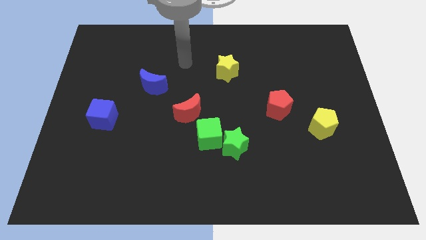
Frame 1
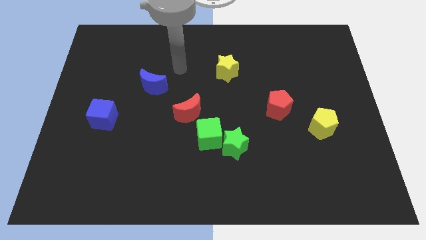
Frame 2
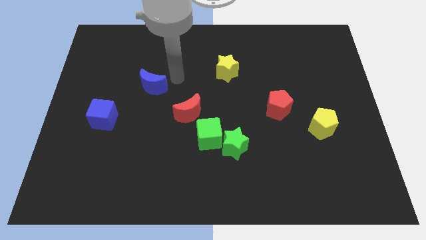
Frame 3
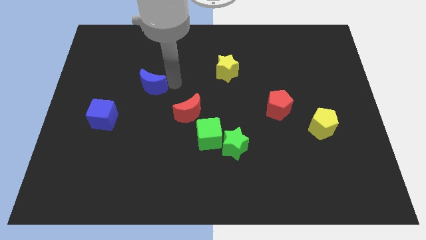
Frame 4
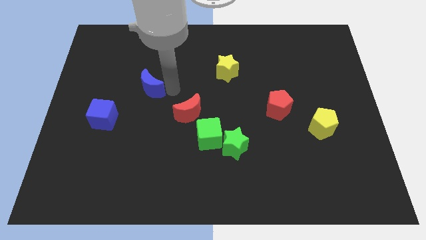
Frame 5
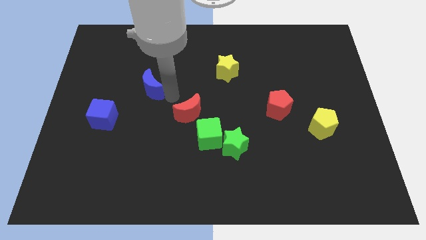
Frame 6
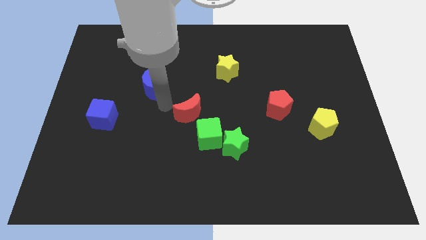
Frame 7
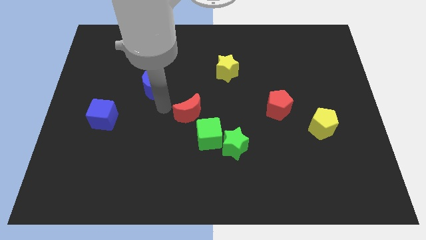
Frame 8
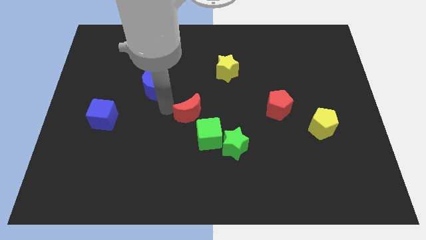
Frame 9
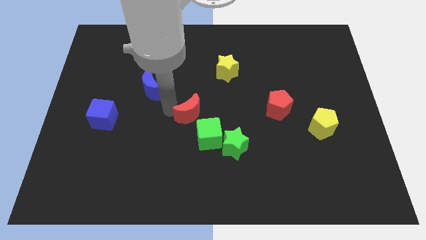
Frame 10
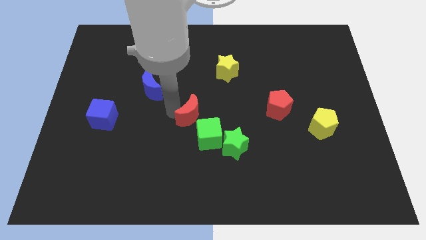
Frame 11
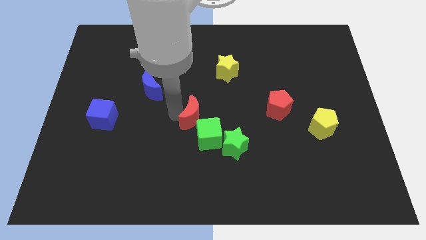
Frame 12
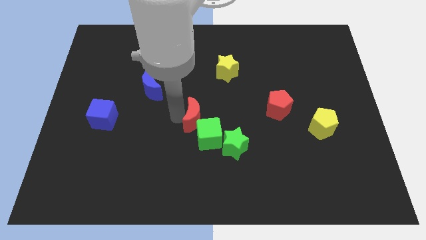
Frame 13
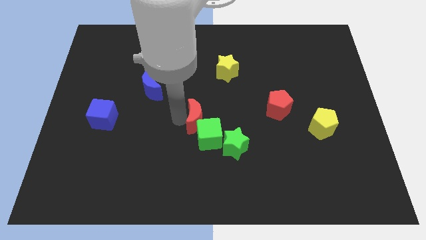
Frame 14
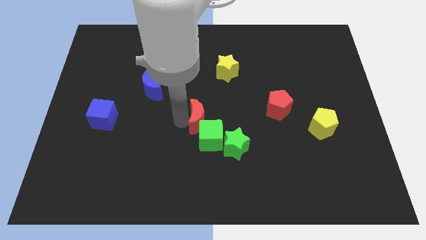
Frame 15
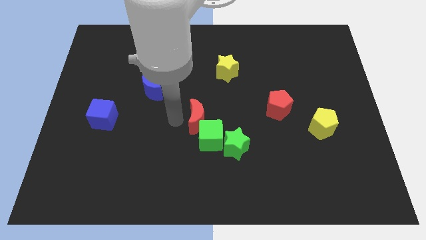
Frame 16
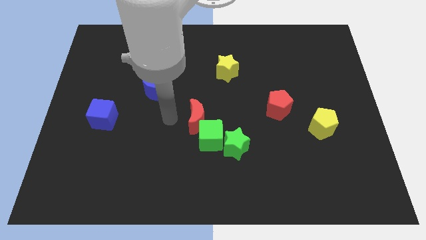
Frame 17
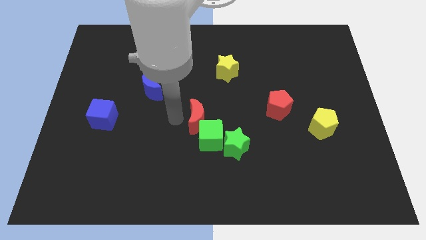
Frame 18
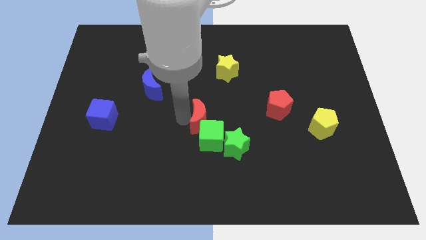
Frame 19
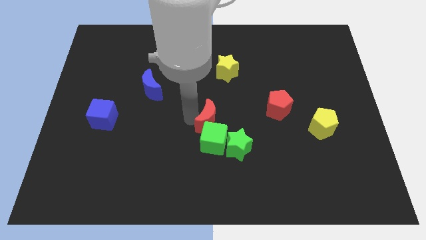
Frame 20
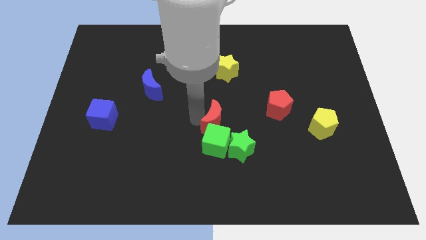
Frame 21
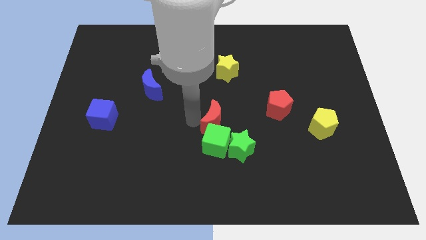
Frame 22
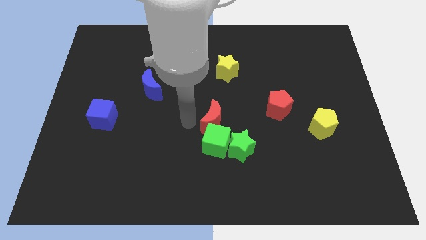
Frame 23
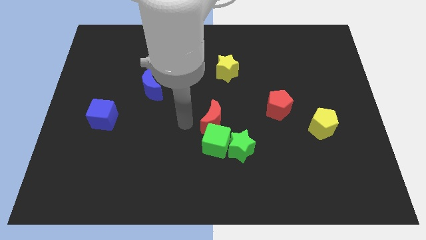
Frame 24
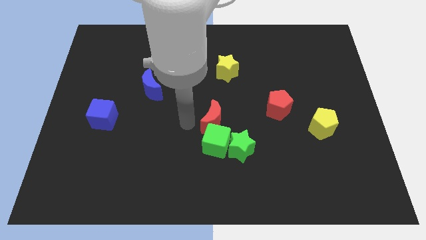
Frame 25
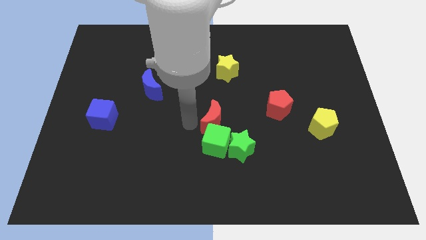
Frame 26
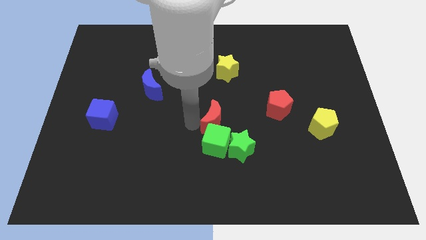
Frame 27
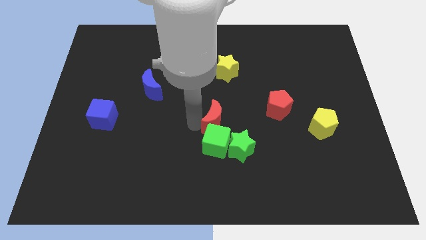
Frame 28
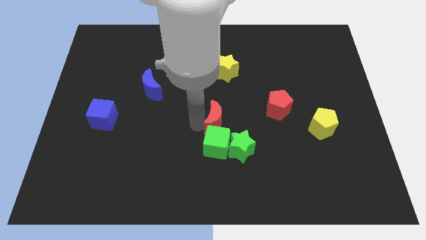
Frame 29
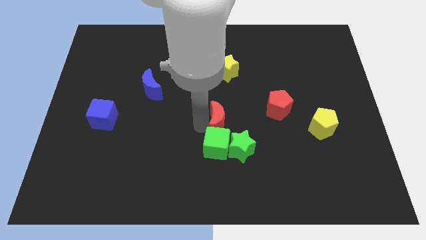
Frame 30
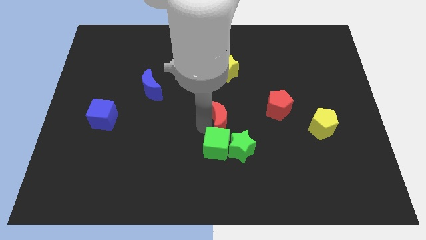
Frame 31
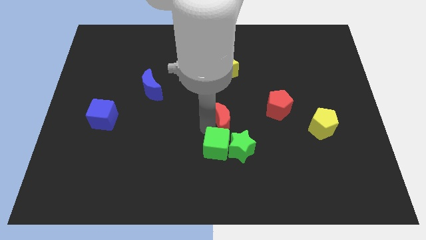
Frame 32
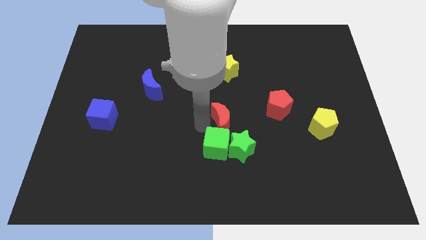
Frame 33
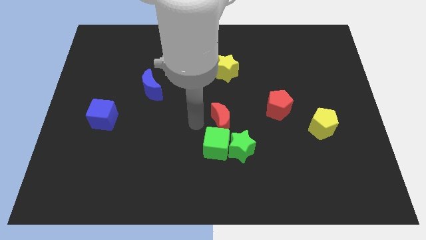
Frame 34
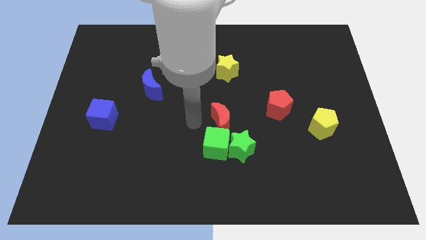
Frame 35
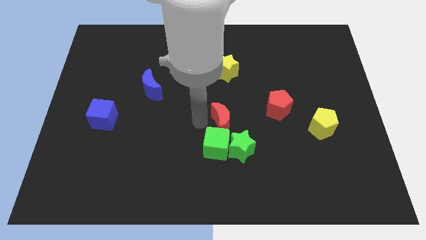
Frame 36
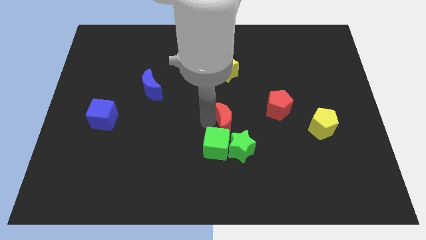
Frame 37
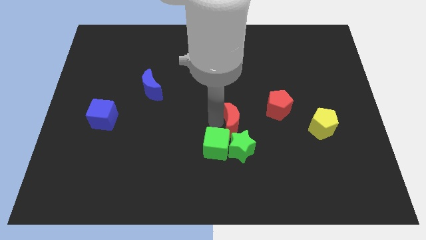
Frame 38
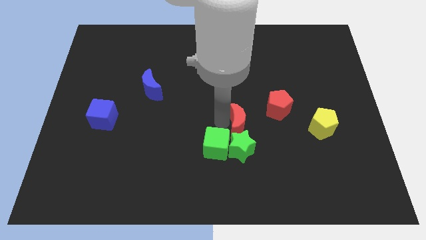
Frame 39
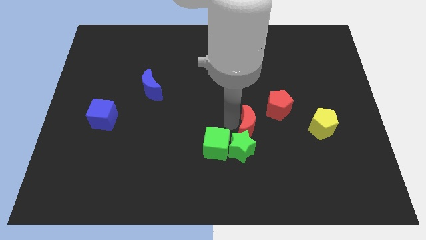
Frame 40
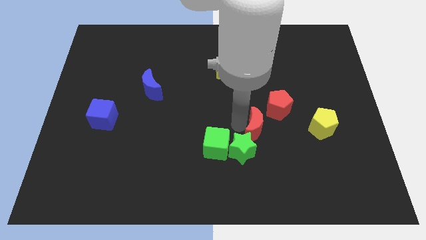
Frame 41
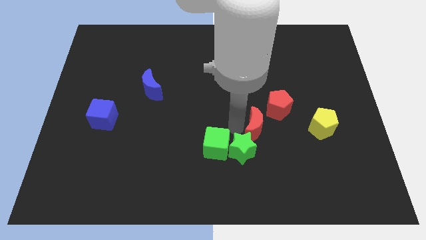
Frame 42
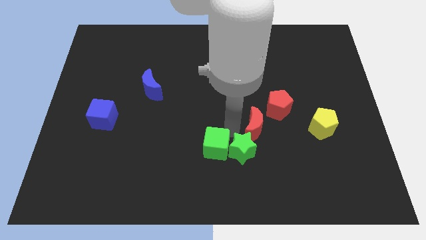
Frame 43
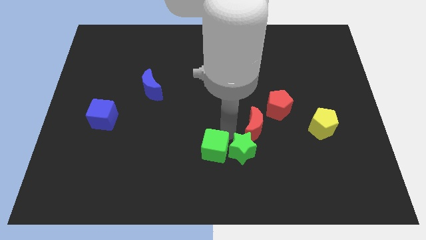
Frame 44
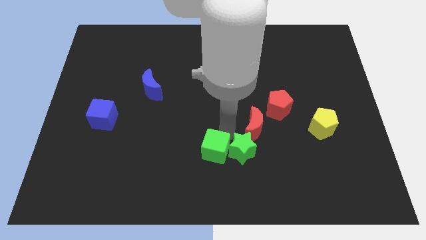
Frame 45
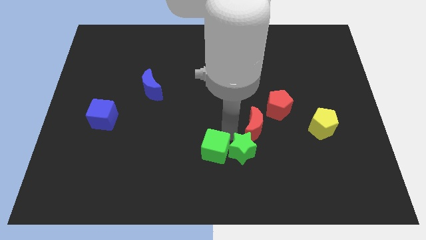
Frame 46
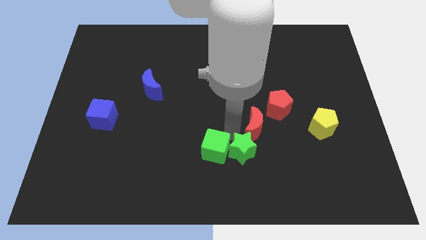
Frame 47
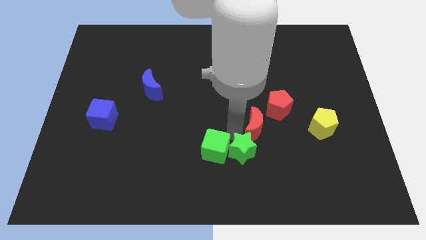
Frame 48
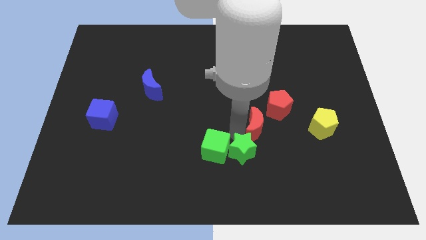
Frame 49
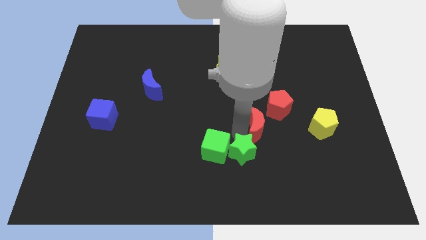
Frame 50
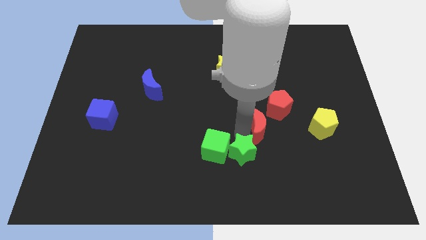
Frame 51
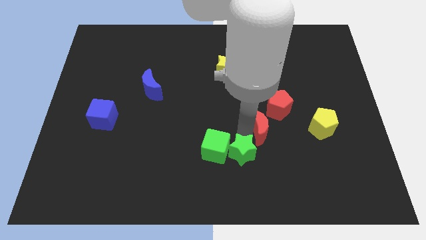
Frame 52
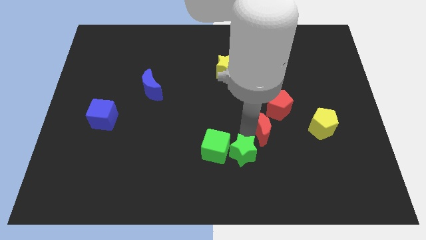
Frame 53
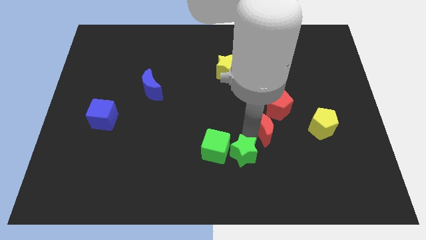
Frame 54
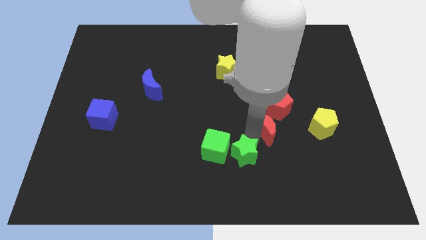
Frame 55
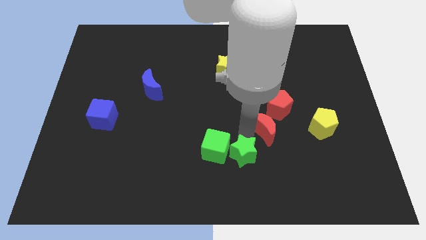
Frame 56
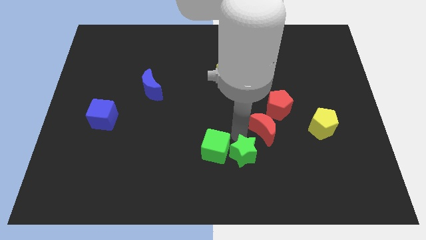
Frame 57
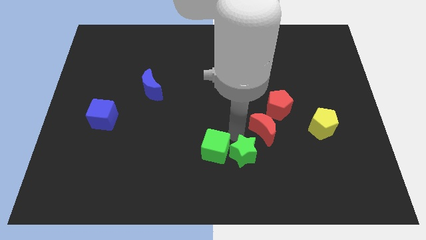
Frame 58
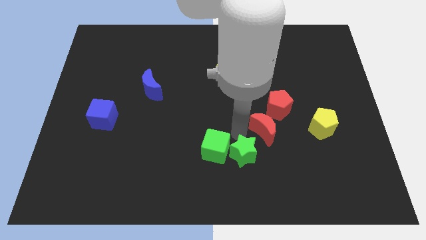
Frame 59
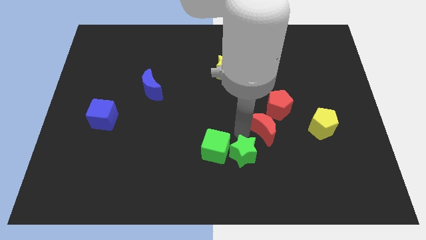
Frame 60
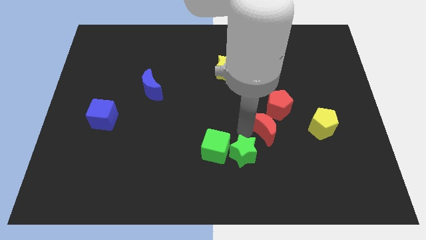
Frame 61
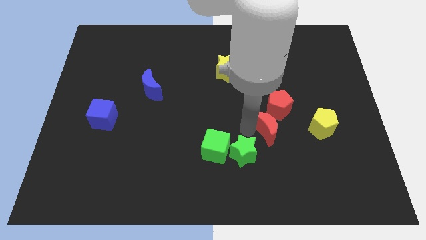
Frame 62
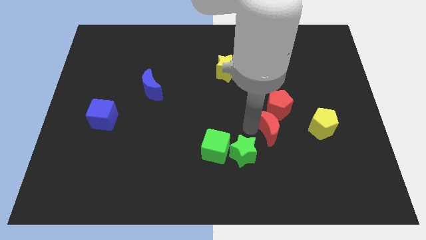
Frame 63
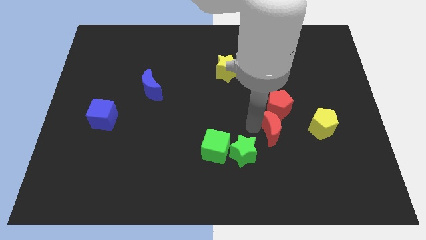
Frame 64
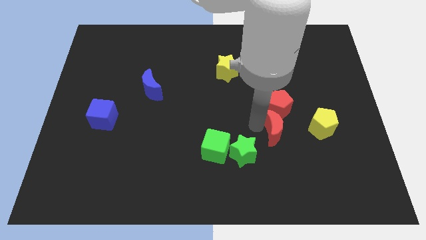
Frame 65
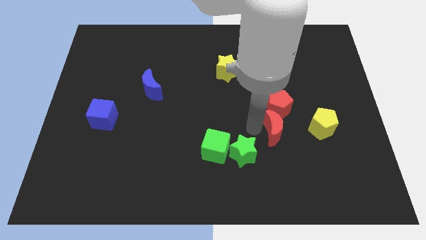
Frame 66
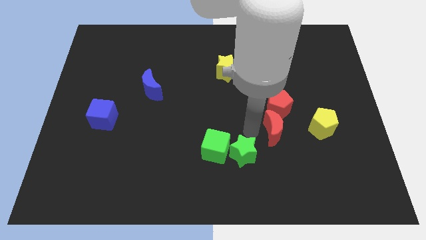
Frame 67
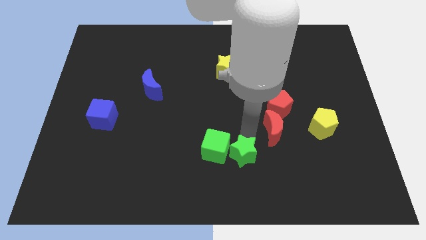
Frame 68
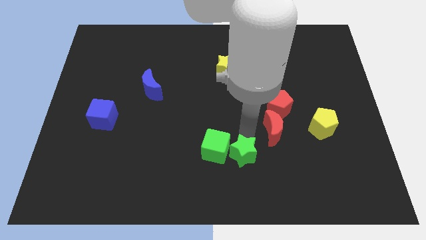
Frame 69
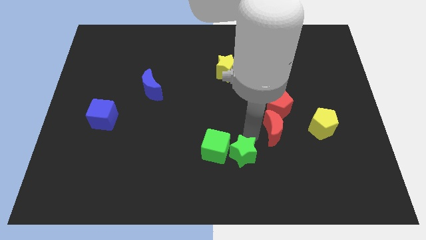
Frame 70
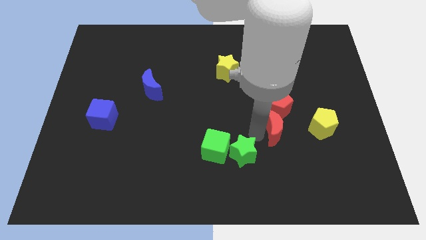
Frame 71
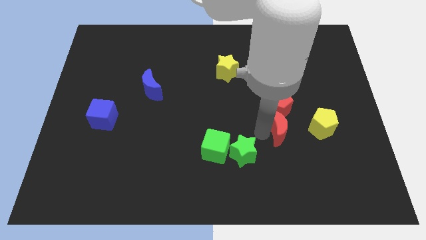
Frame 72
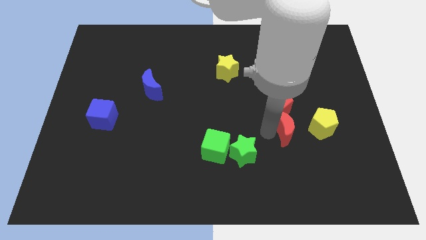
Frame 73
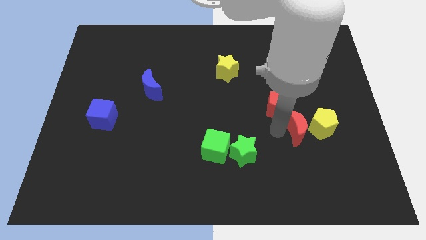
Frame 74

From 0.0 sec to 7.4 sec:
push the red moon to the yellow pentagon

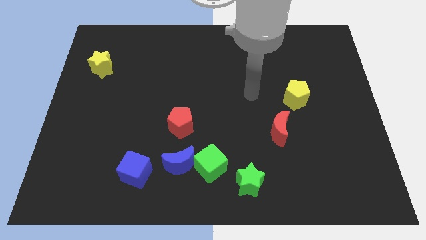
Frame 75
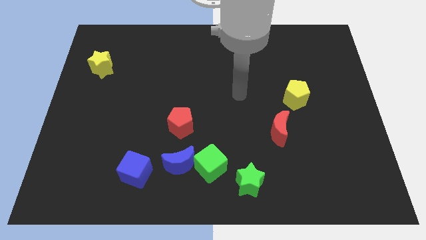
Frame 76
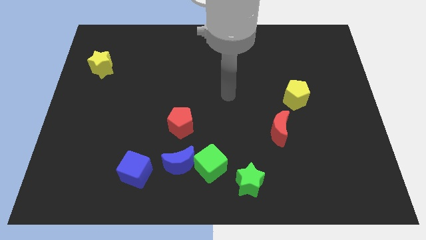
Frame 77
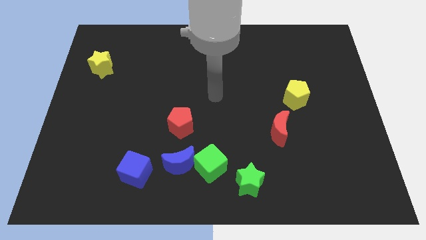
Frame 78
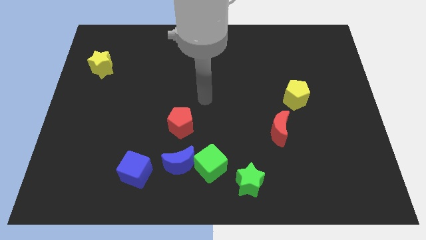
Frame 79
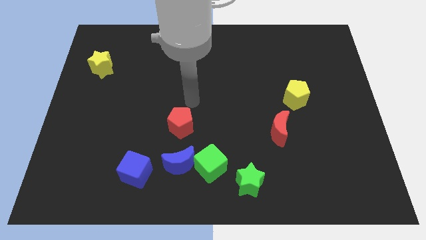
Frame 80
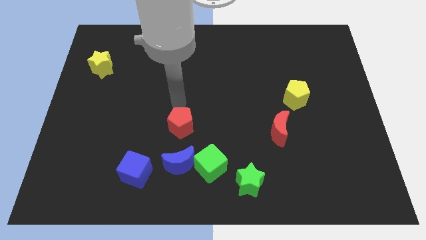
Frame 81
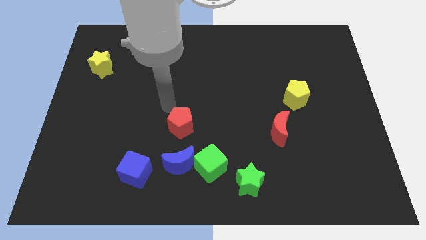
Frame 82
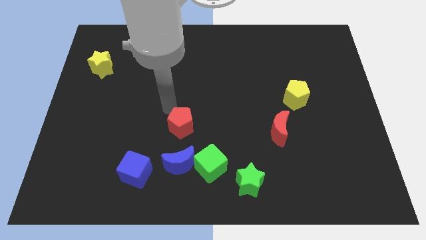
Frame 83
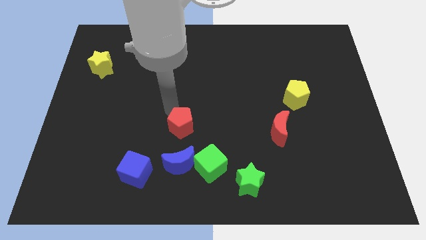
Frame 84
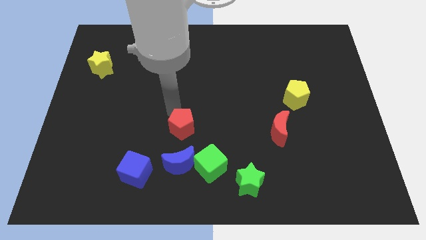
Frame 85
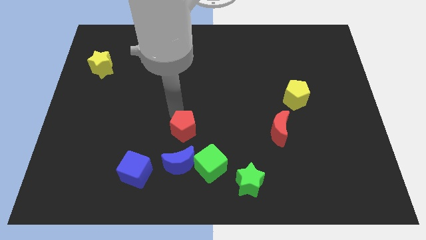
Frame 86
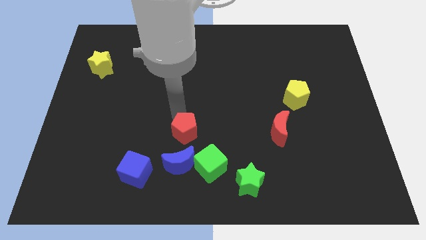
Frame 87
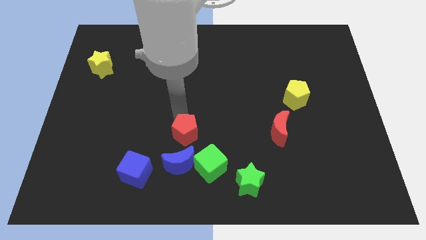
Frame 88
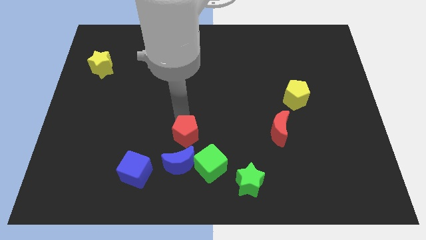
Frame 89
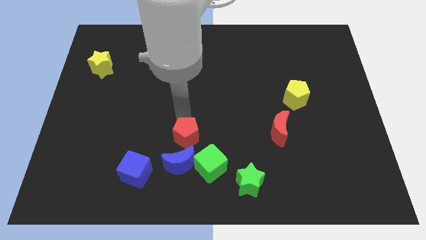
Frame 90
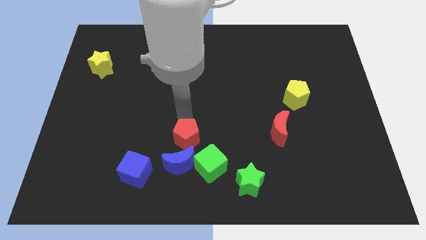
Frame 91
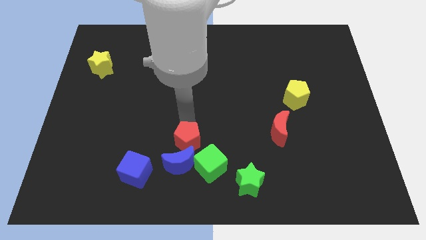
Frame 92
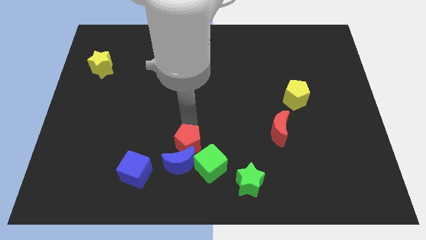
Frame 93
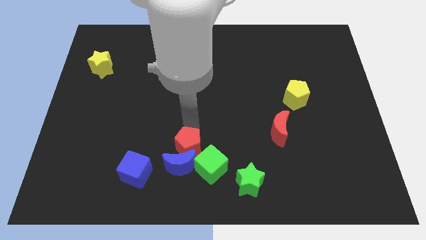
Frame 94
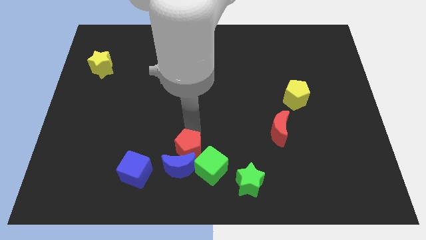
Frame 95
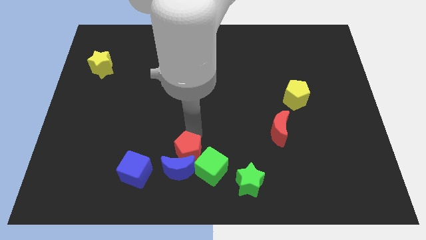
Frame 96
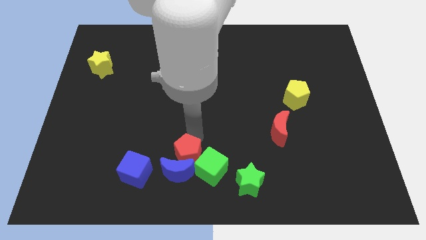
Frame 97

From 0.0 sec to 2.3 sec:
move the red pentagon towards the green cube
